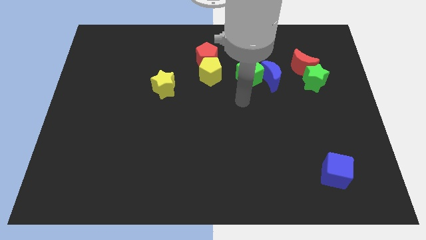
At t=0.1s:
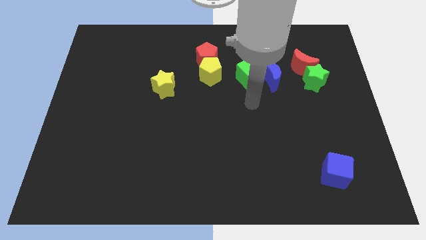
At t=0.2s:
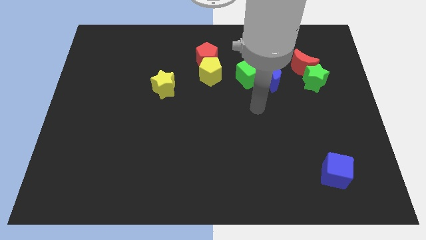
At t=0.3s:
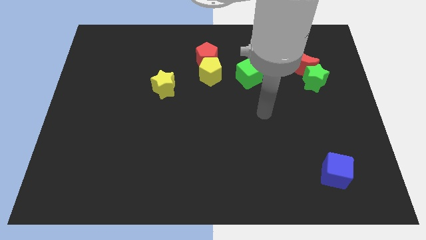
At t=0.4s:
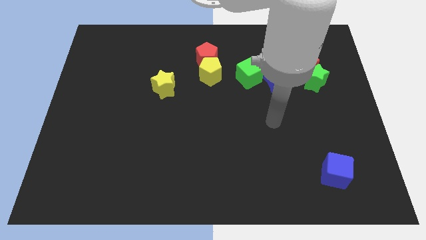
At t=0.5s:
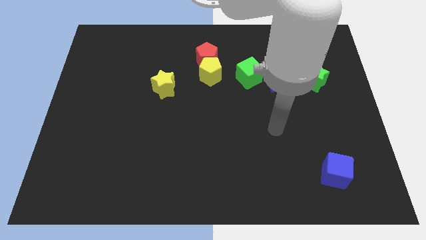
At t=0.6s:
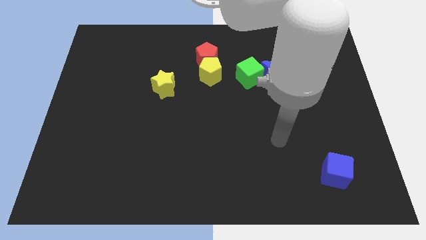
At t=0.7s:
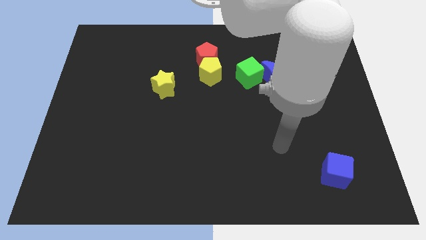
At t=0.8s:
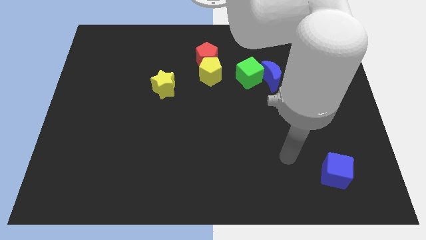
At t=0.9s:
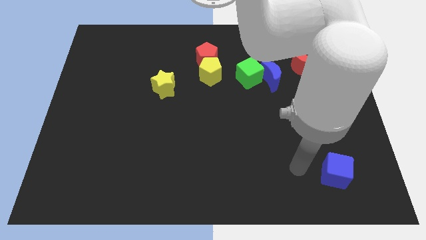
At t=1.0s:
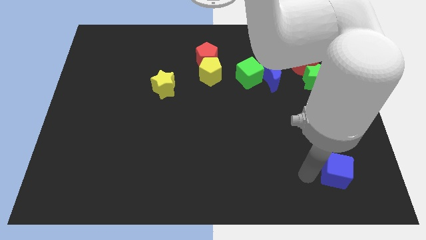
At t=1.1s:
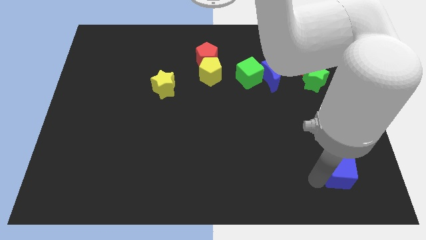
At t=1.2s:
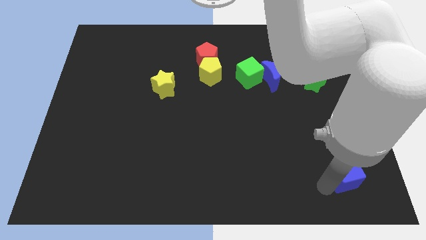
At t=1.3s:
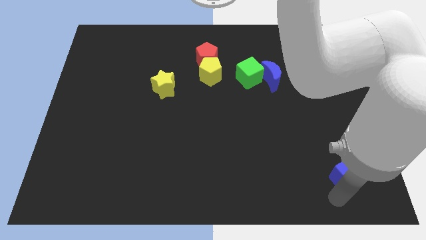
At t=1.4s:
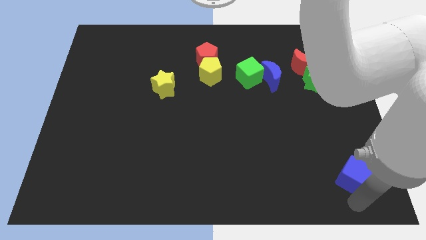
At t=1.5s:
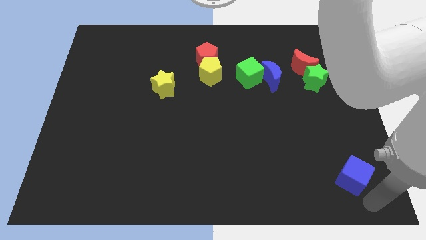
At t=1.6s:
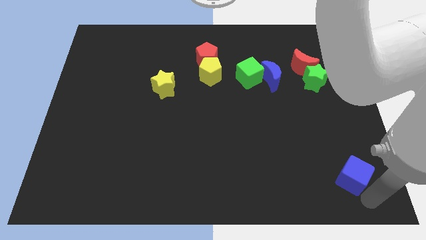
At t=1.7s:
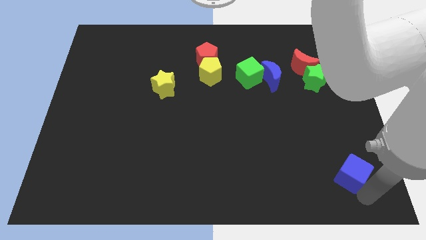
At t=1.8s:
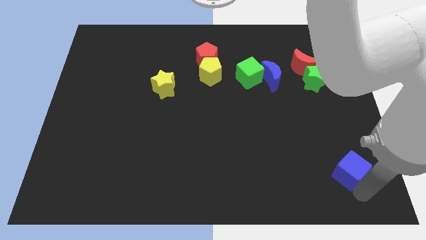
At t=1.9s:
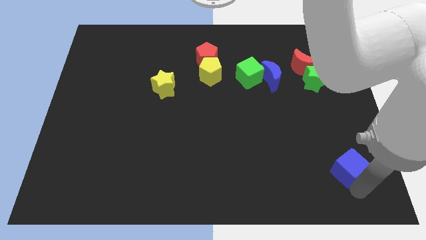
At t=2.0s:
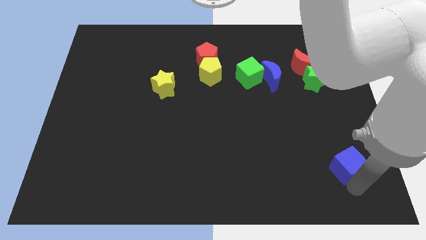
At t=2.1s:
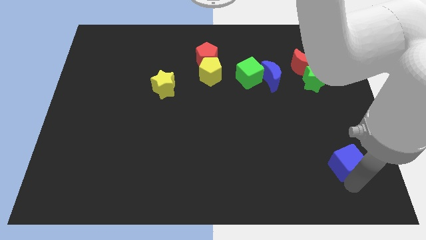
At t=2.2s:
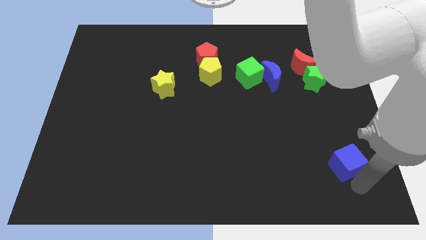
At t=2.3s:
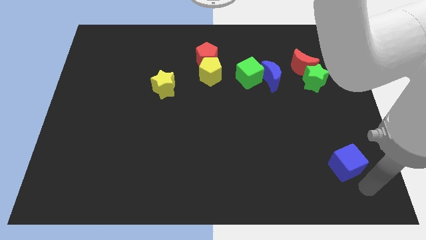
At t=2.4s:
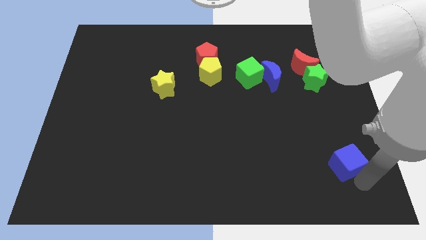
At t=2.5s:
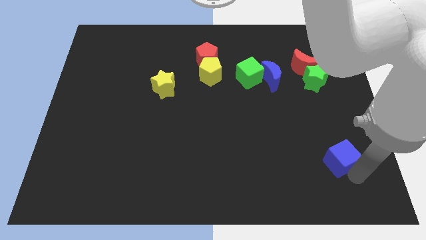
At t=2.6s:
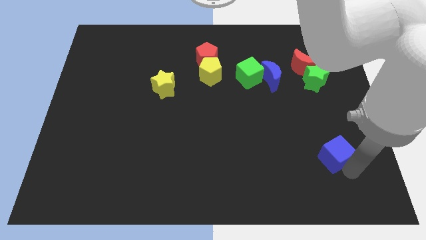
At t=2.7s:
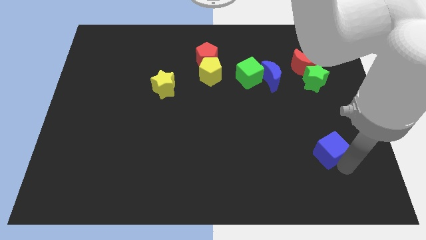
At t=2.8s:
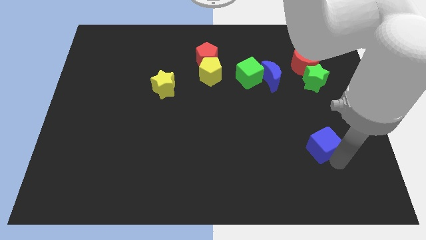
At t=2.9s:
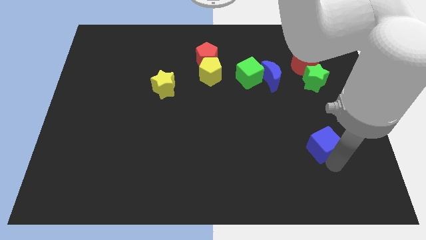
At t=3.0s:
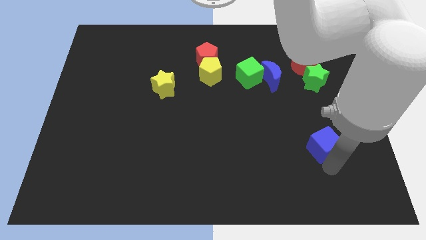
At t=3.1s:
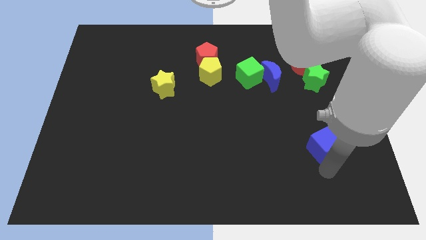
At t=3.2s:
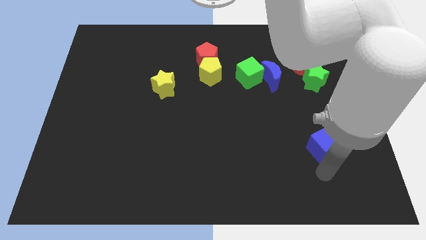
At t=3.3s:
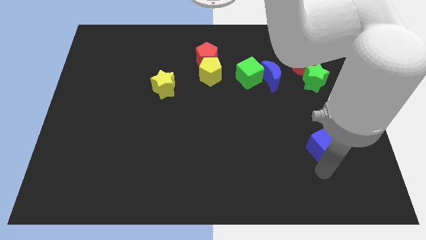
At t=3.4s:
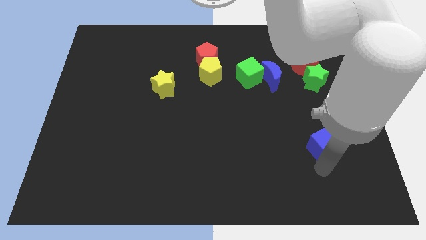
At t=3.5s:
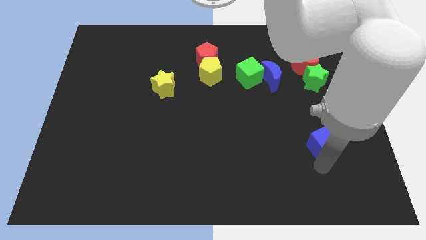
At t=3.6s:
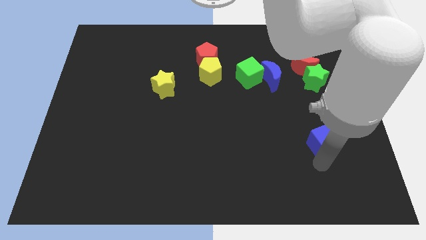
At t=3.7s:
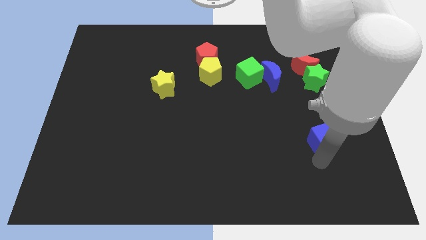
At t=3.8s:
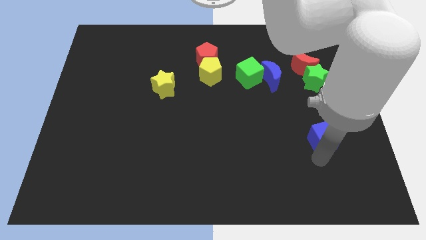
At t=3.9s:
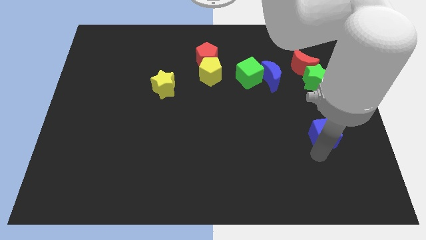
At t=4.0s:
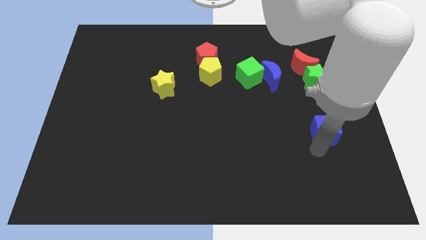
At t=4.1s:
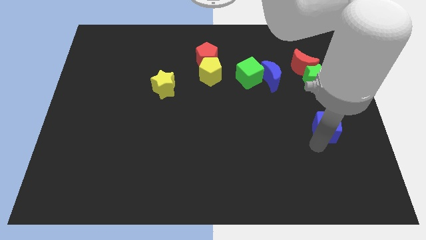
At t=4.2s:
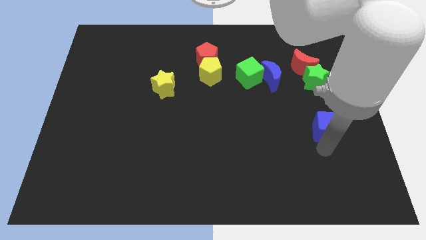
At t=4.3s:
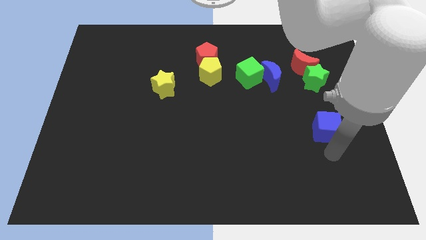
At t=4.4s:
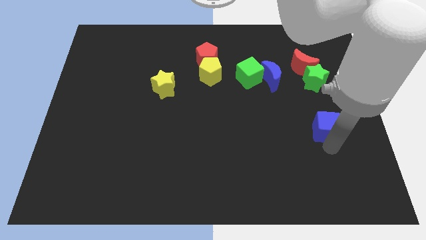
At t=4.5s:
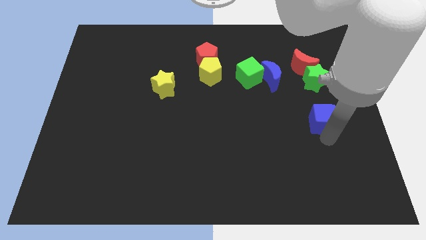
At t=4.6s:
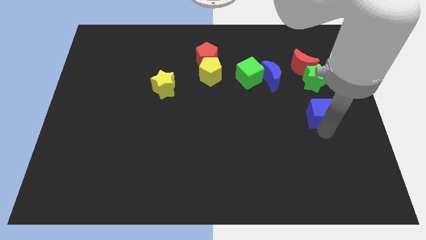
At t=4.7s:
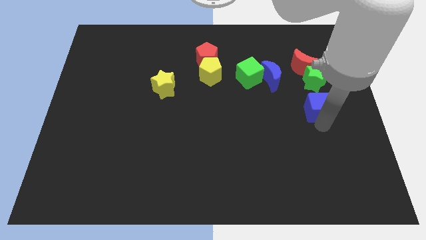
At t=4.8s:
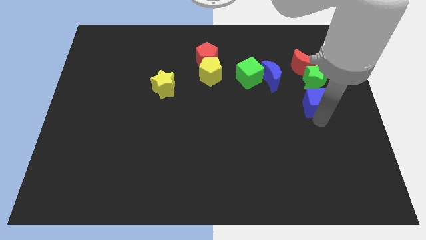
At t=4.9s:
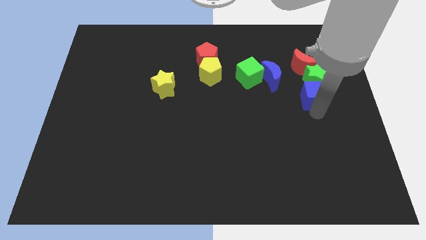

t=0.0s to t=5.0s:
move the blue cube towards the green star

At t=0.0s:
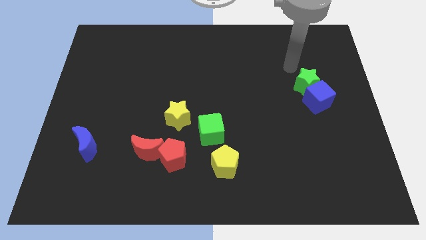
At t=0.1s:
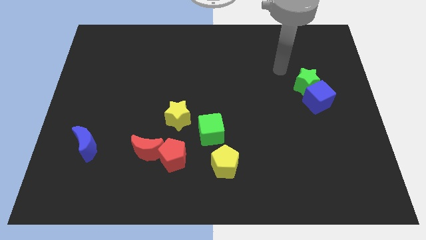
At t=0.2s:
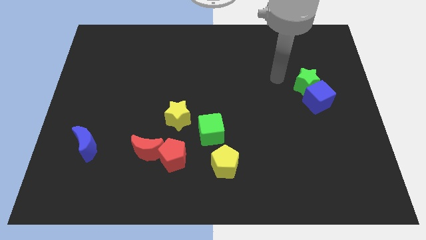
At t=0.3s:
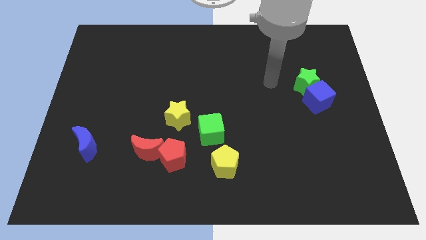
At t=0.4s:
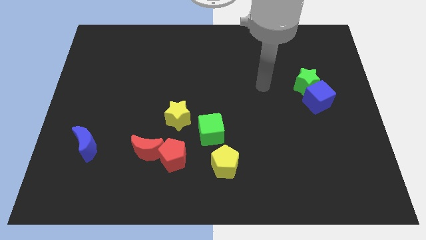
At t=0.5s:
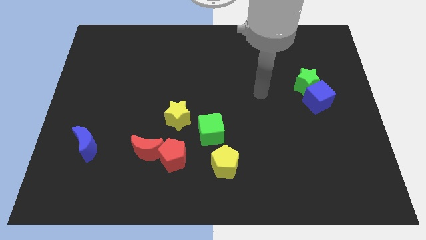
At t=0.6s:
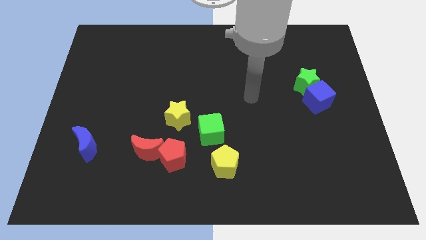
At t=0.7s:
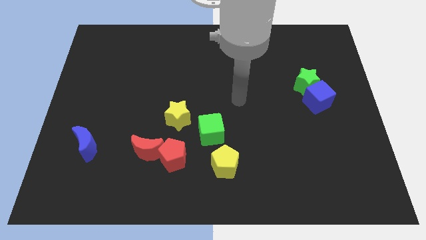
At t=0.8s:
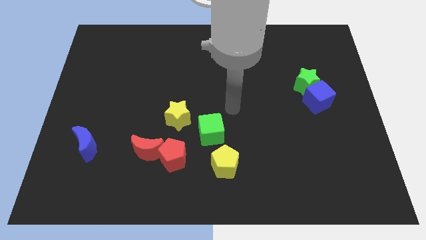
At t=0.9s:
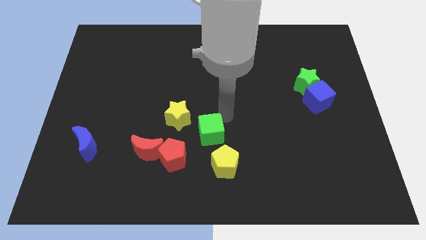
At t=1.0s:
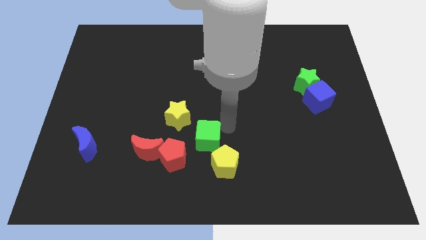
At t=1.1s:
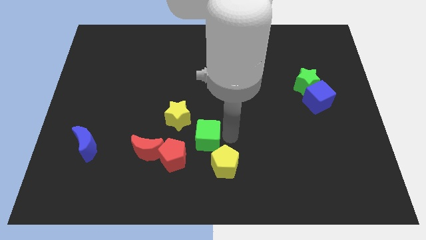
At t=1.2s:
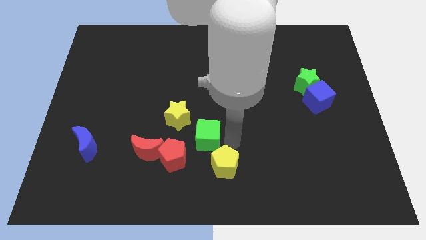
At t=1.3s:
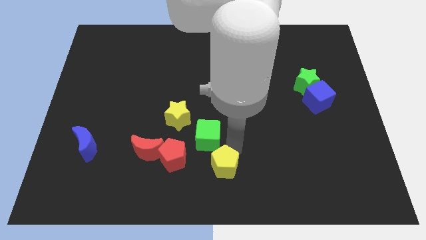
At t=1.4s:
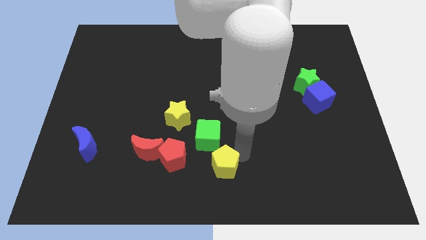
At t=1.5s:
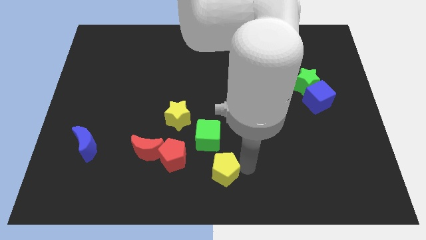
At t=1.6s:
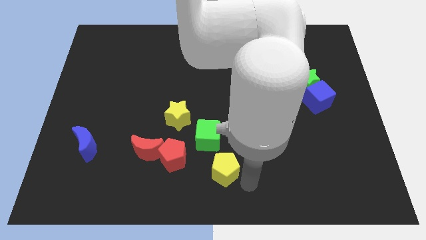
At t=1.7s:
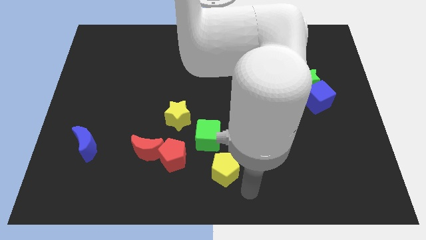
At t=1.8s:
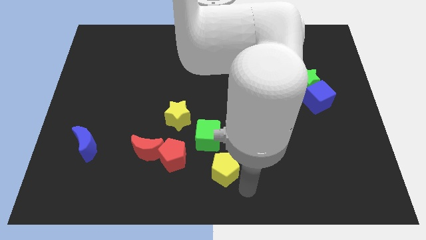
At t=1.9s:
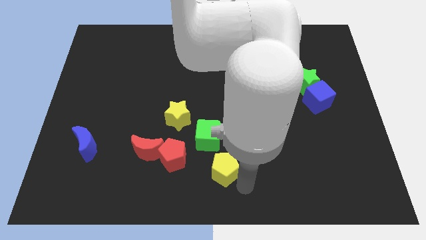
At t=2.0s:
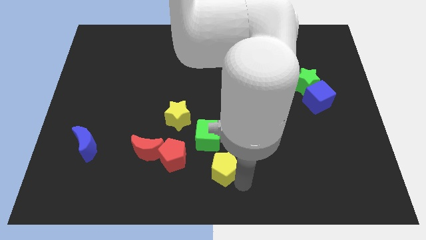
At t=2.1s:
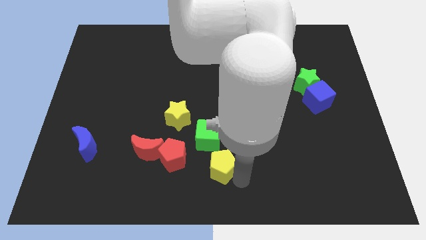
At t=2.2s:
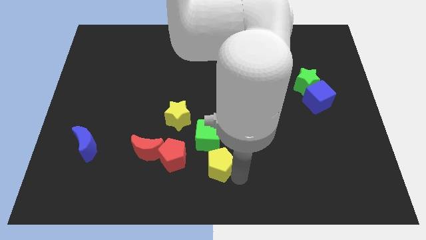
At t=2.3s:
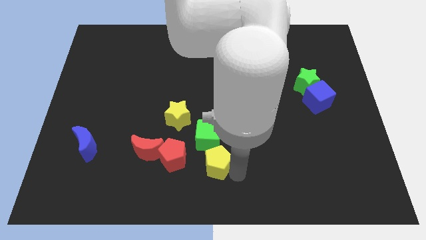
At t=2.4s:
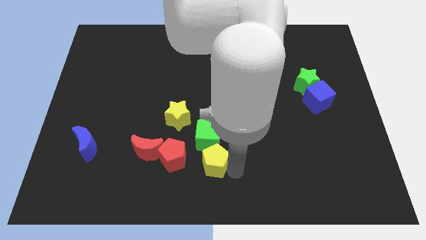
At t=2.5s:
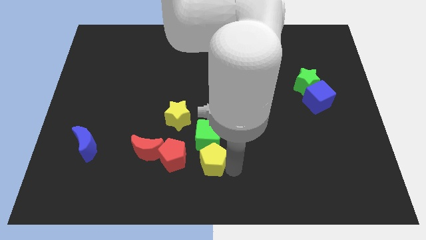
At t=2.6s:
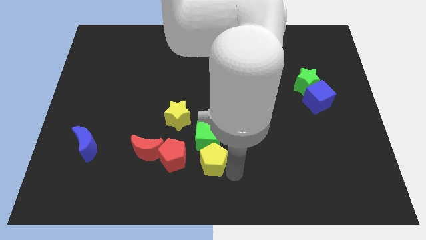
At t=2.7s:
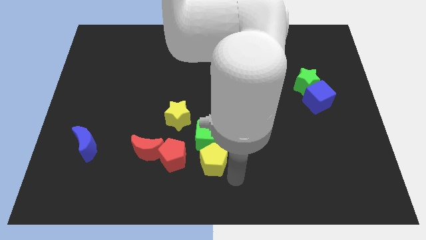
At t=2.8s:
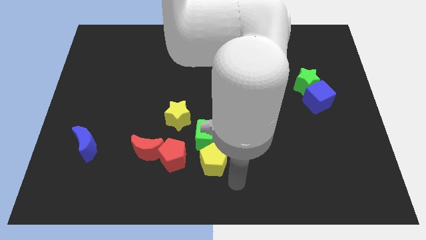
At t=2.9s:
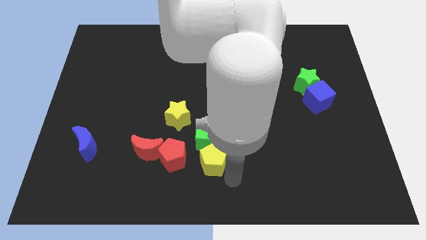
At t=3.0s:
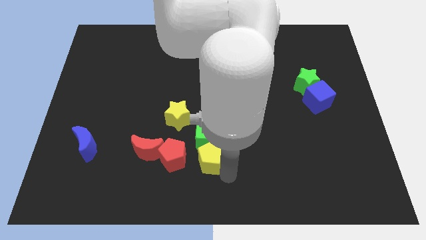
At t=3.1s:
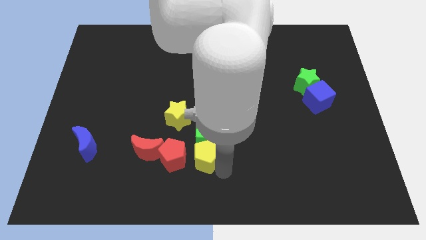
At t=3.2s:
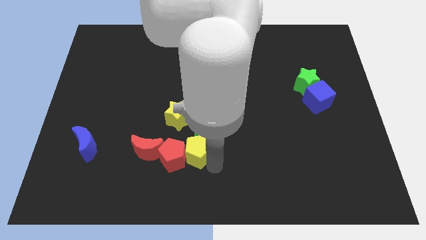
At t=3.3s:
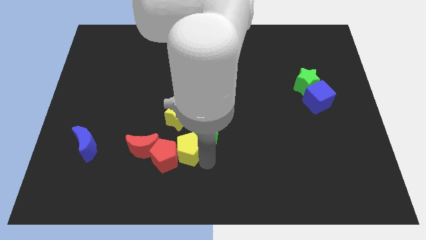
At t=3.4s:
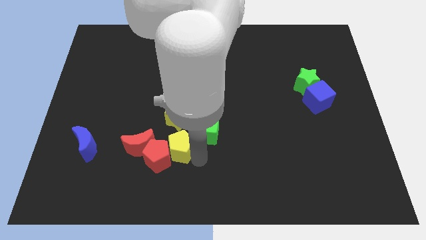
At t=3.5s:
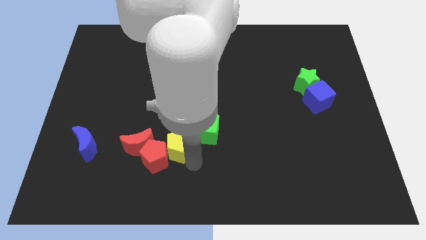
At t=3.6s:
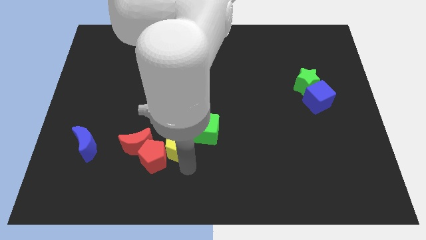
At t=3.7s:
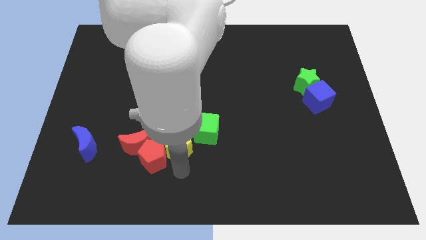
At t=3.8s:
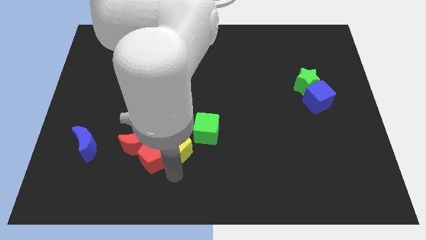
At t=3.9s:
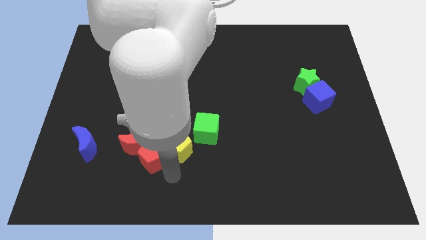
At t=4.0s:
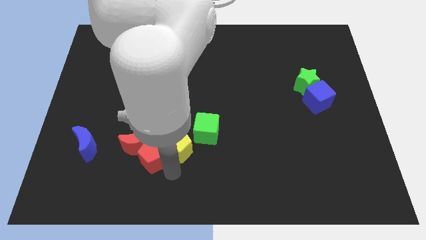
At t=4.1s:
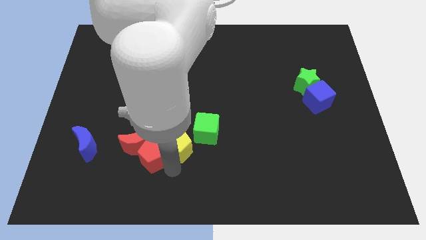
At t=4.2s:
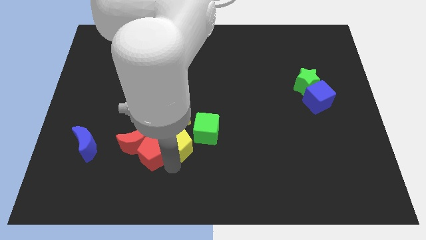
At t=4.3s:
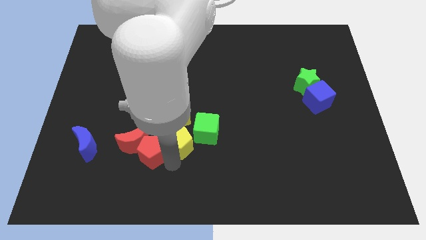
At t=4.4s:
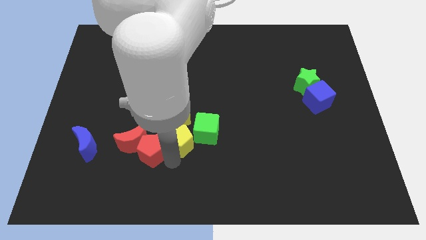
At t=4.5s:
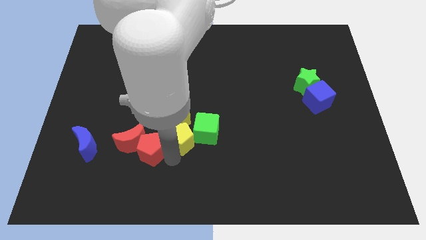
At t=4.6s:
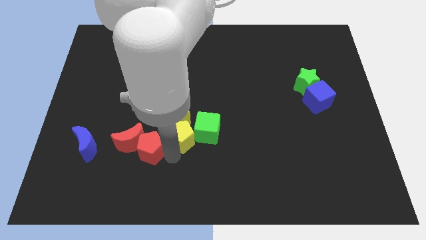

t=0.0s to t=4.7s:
push the yellow pentagon close to the yellow star
